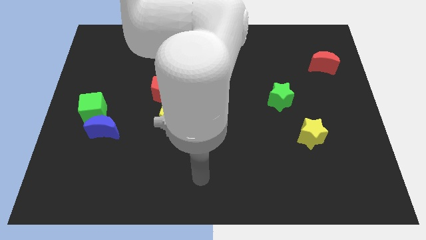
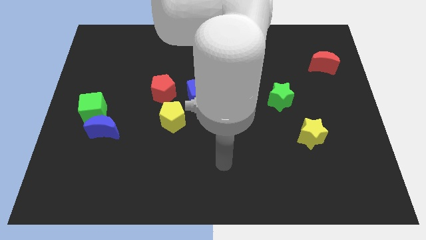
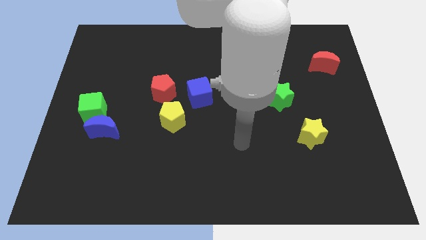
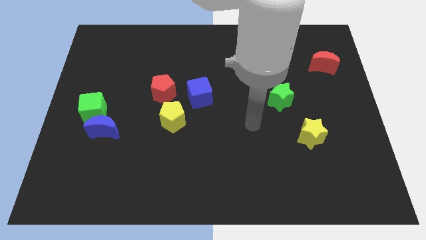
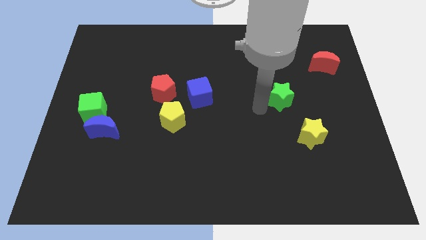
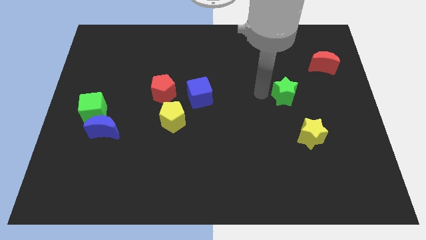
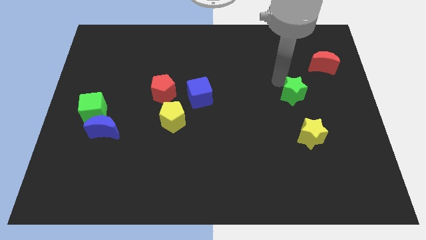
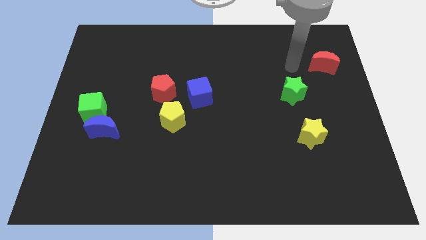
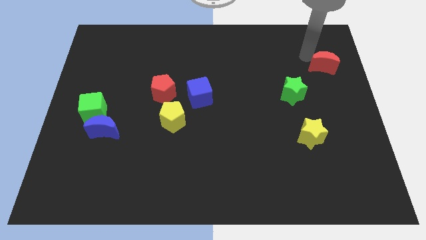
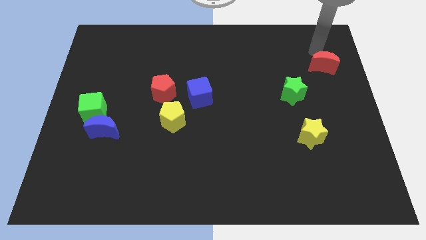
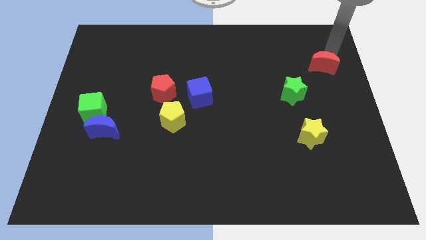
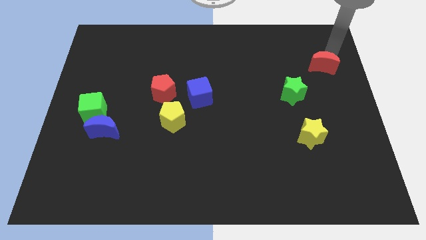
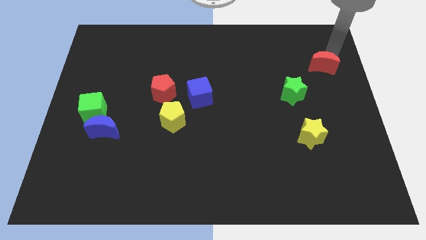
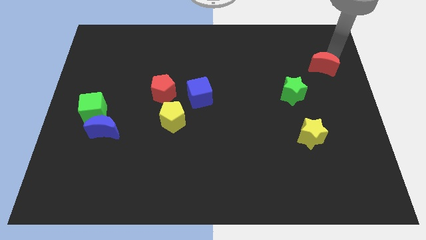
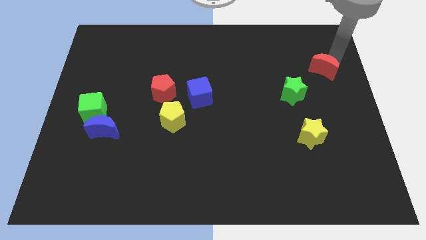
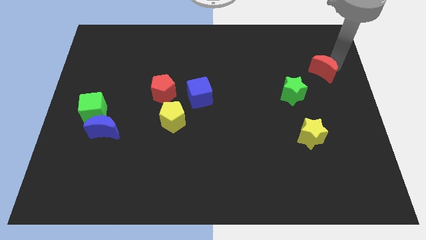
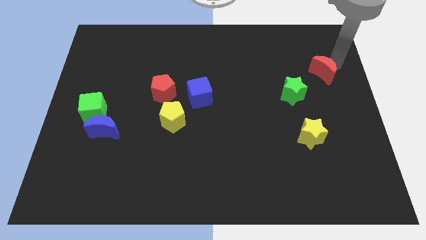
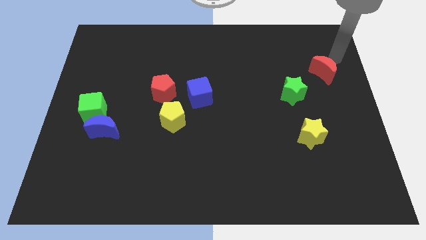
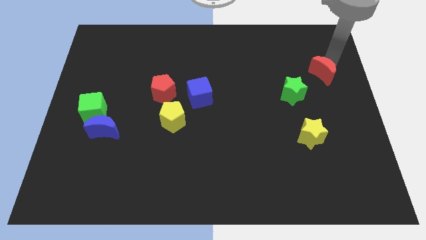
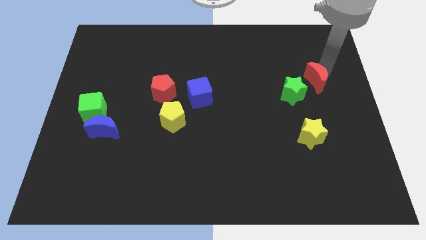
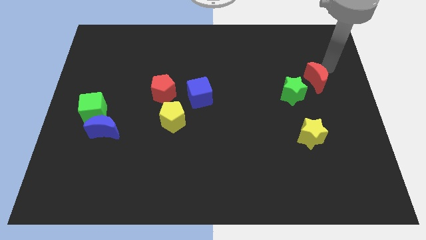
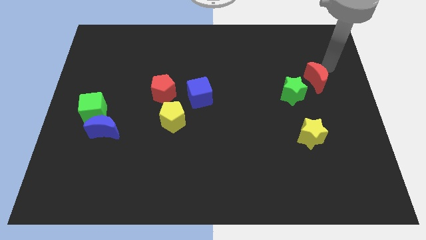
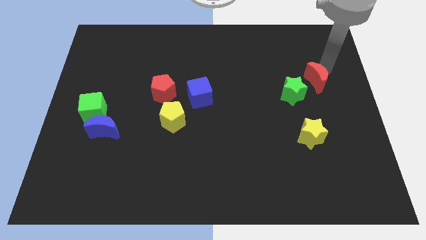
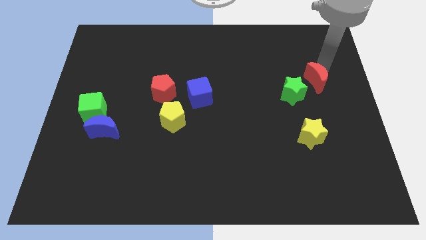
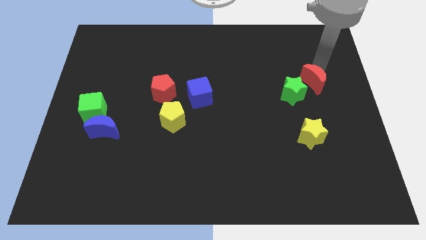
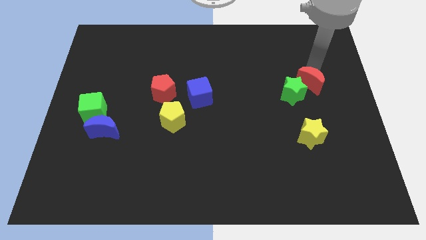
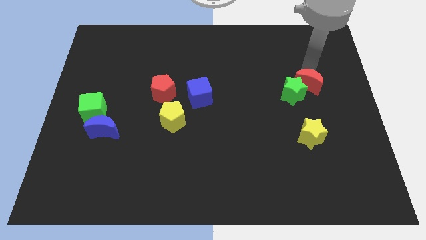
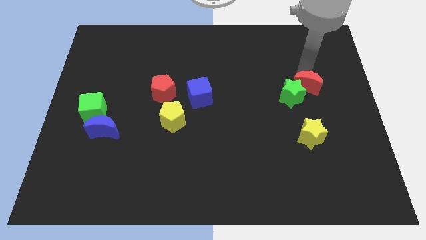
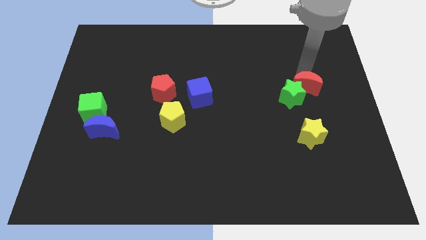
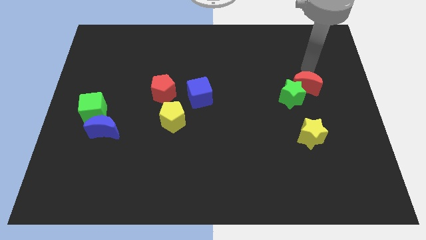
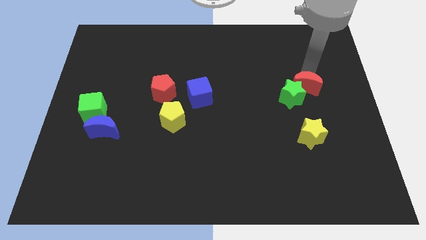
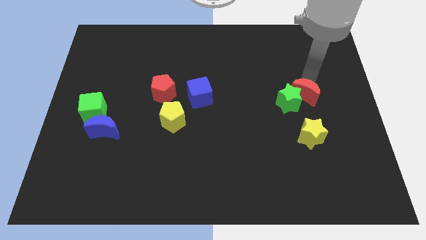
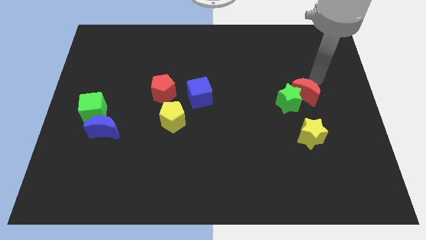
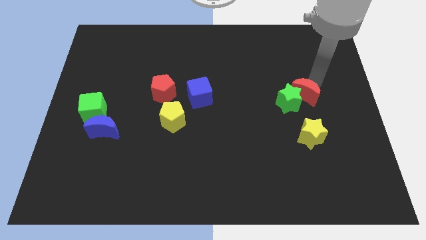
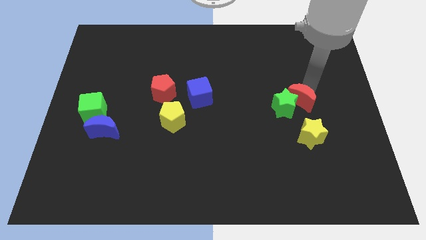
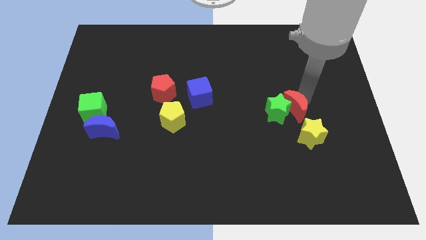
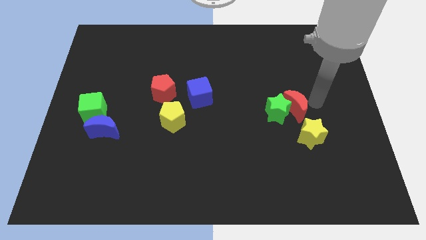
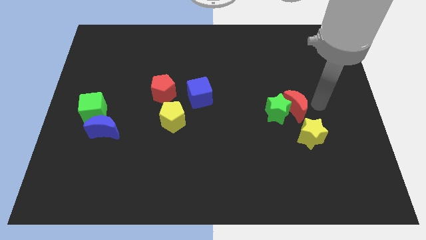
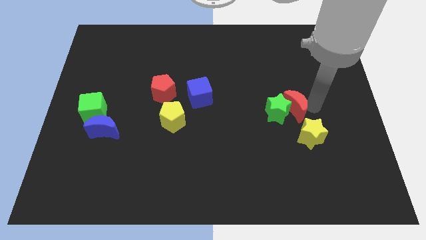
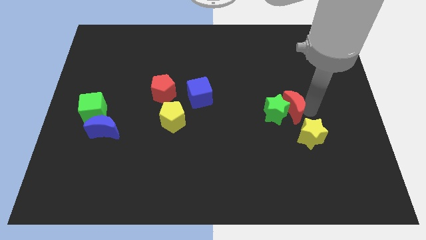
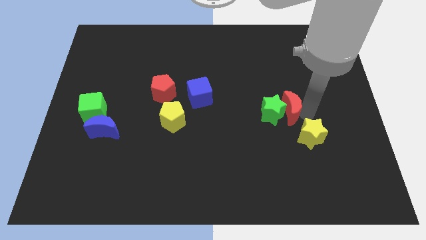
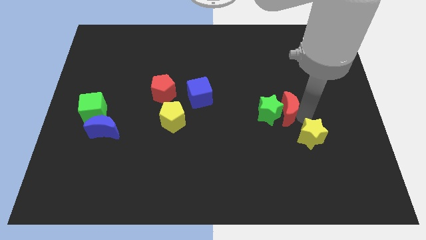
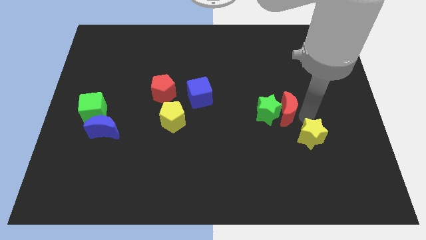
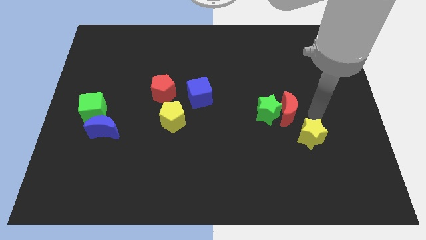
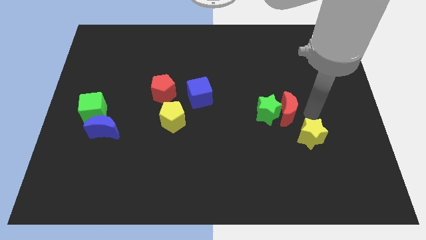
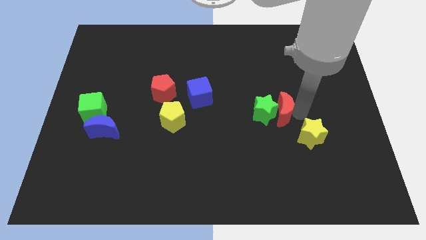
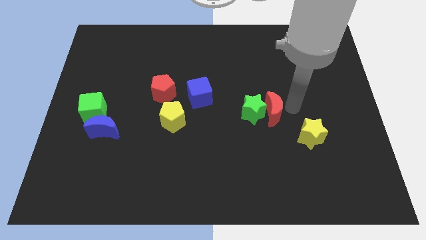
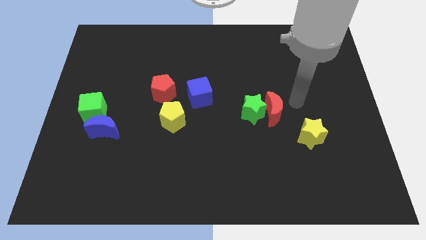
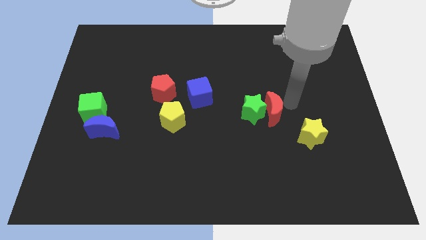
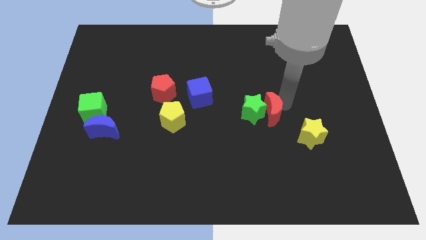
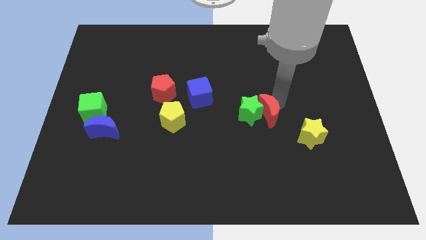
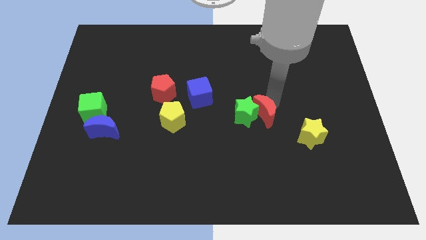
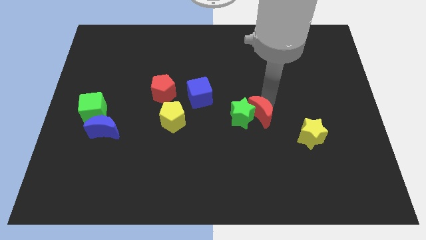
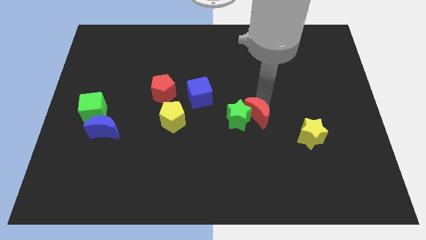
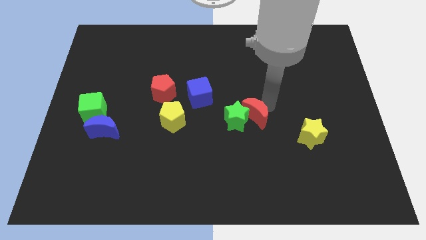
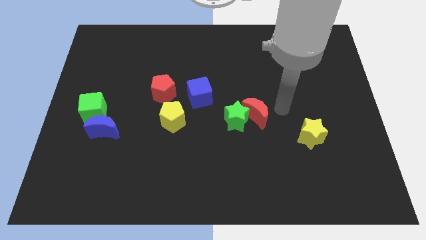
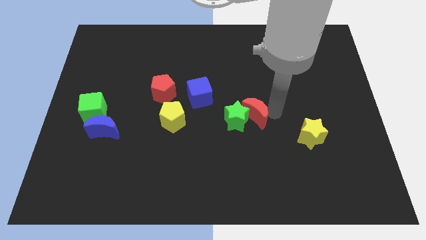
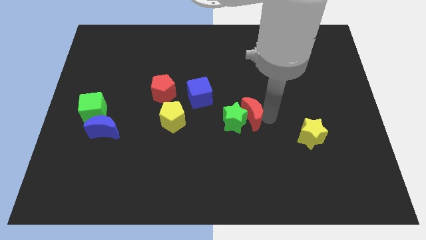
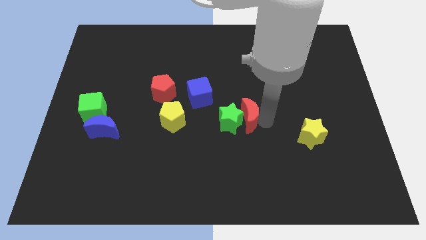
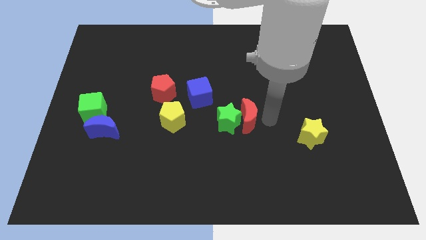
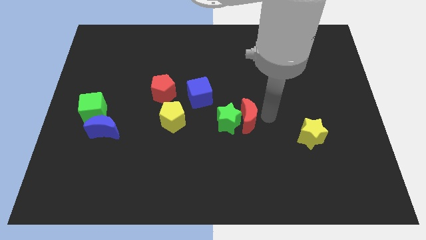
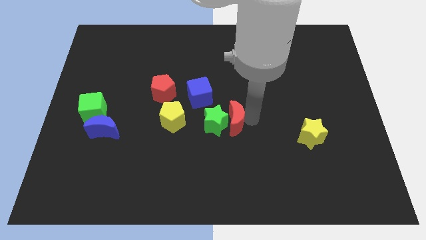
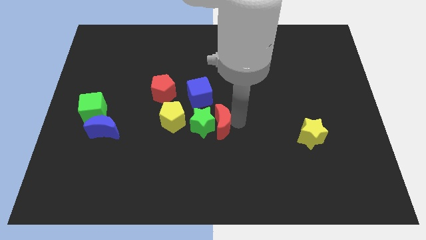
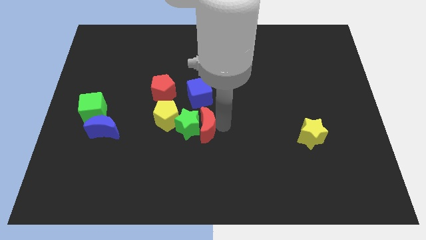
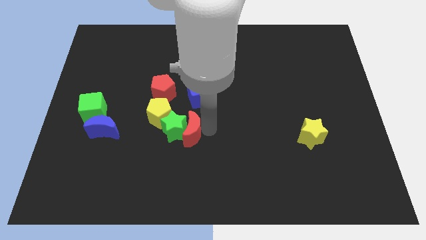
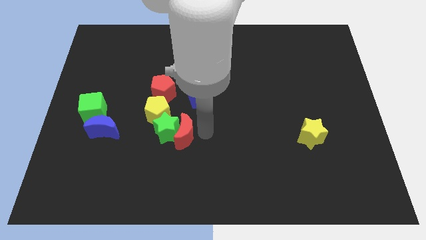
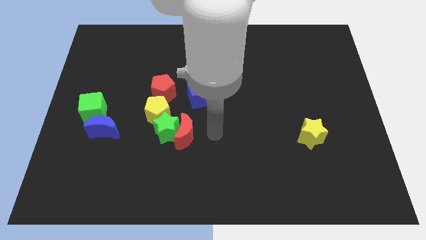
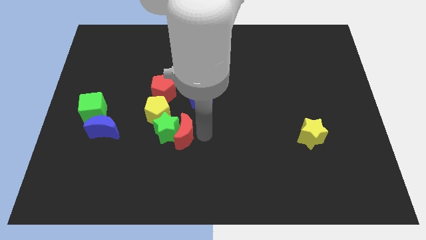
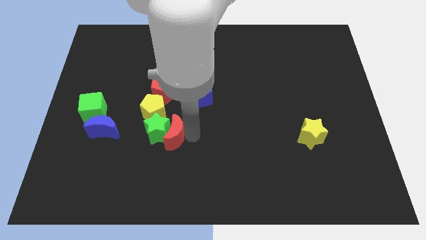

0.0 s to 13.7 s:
move the red moon right of the blue moon
